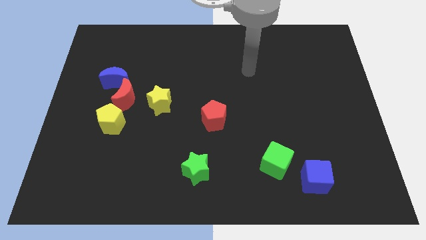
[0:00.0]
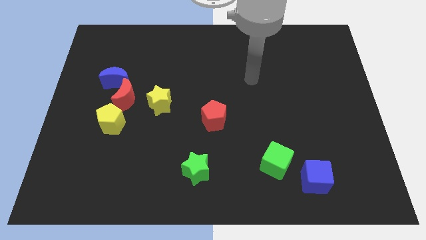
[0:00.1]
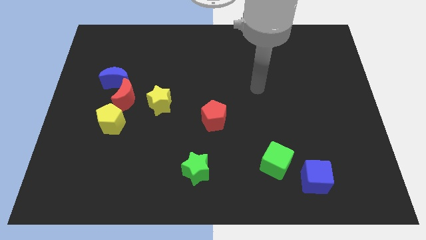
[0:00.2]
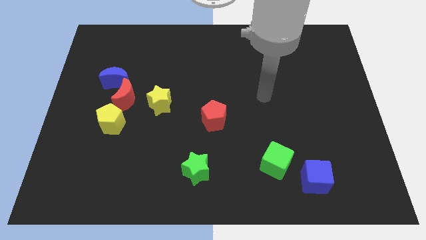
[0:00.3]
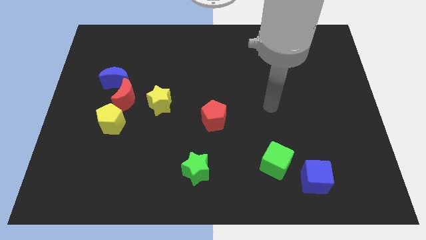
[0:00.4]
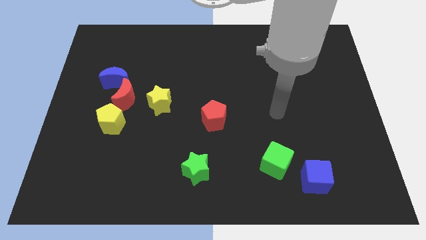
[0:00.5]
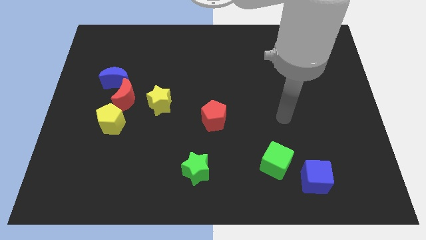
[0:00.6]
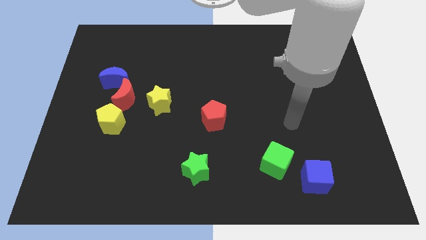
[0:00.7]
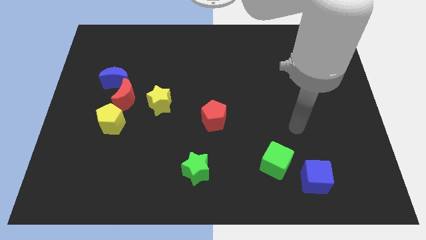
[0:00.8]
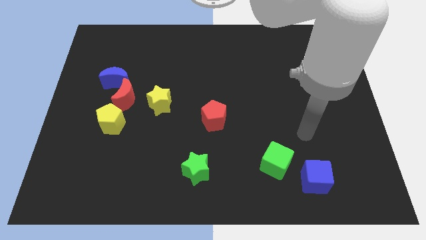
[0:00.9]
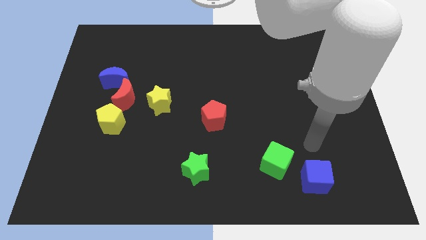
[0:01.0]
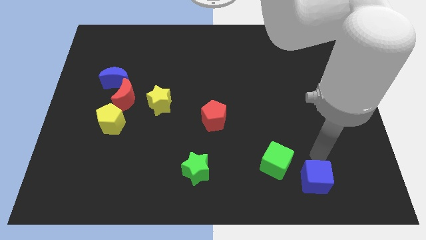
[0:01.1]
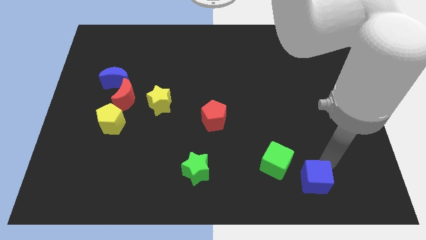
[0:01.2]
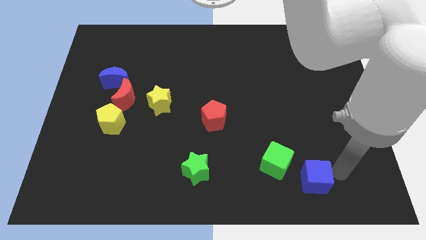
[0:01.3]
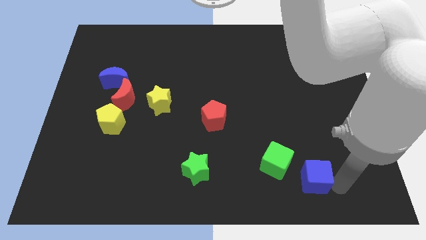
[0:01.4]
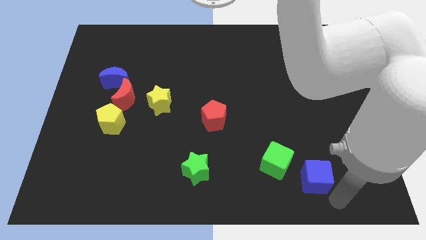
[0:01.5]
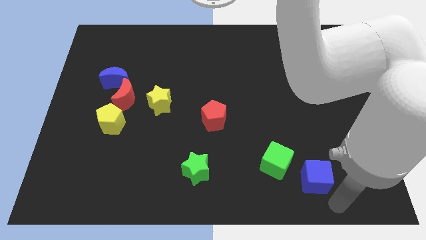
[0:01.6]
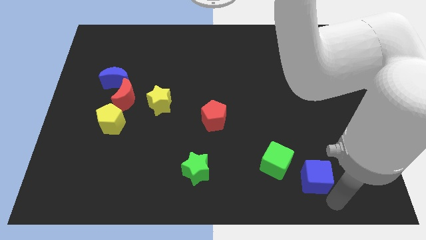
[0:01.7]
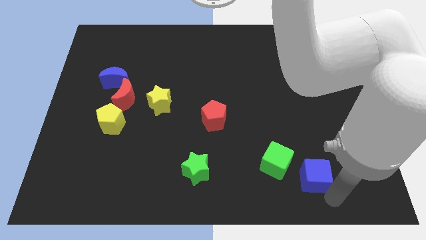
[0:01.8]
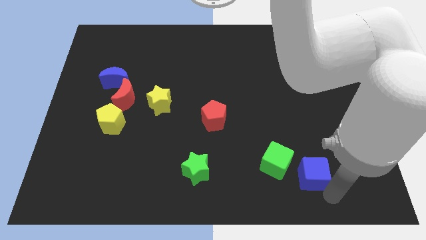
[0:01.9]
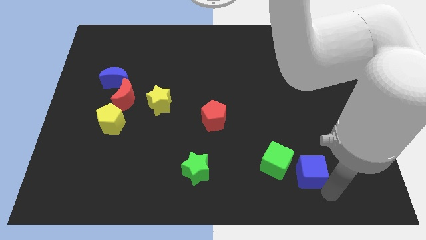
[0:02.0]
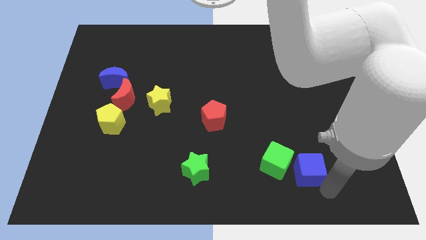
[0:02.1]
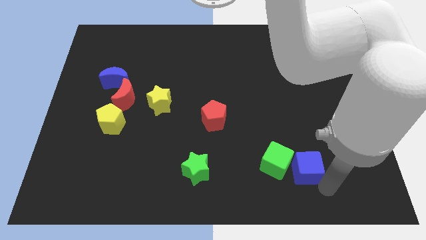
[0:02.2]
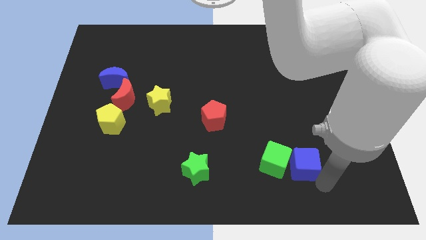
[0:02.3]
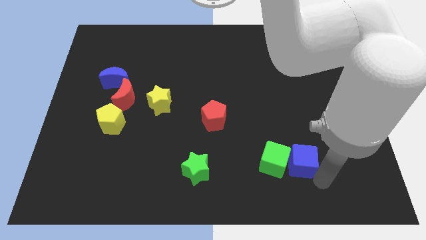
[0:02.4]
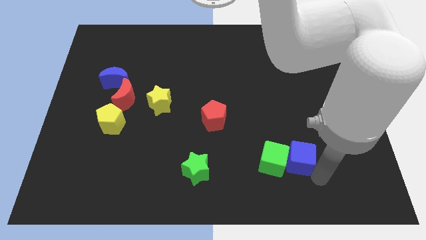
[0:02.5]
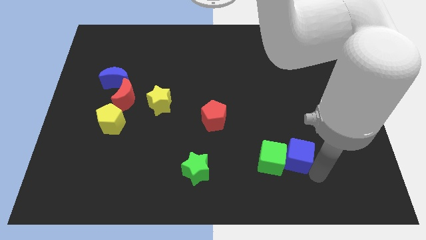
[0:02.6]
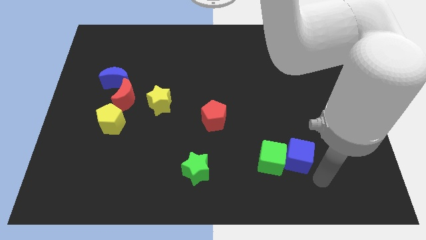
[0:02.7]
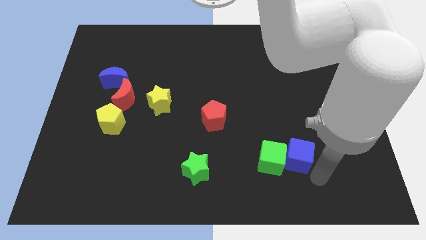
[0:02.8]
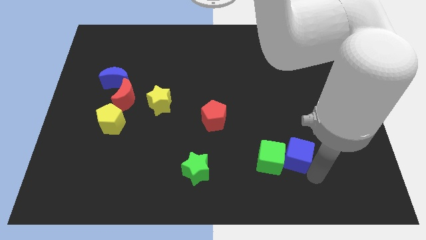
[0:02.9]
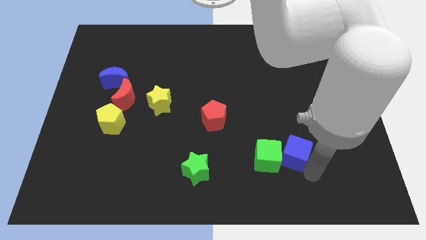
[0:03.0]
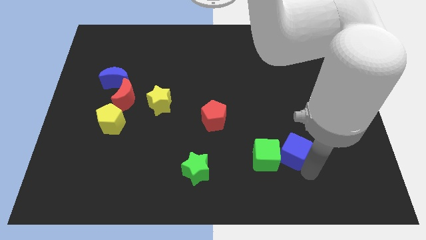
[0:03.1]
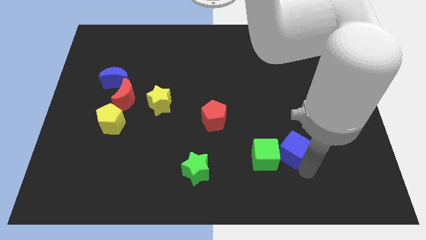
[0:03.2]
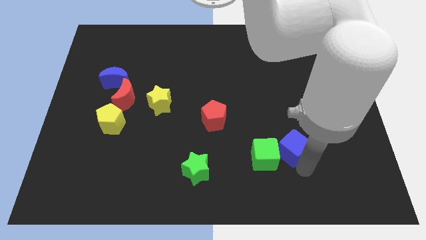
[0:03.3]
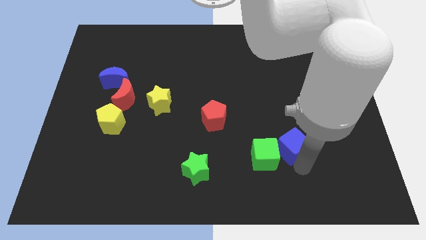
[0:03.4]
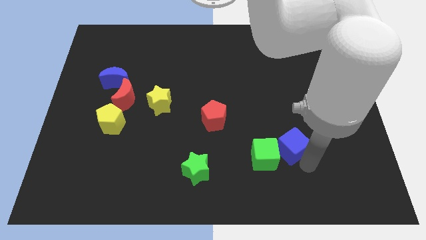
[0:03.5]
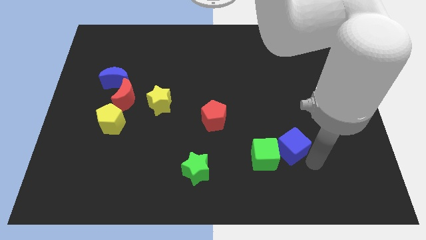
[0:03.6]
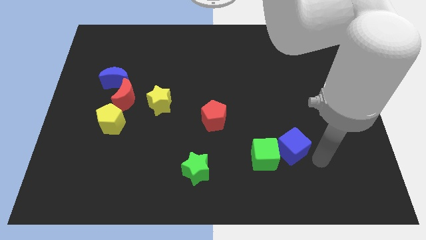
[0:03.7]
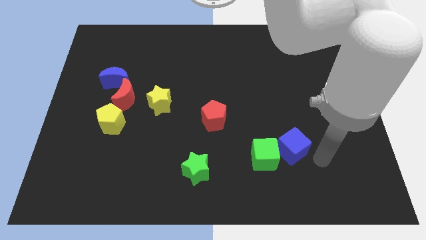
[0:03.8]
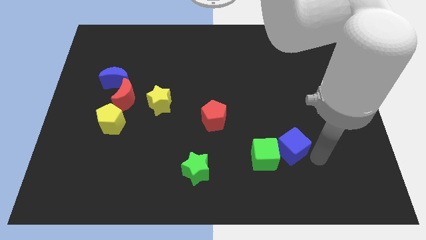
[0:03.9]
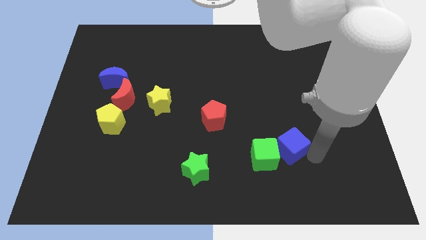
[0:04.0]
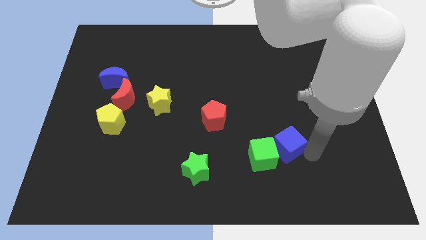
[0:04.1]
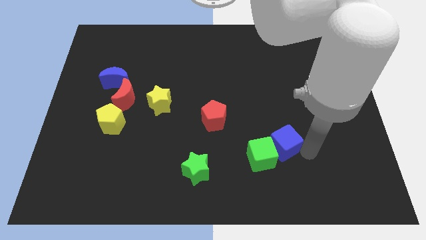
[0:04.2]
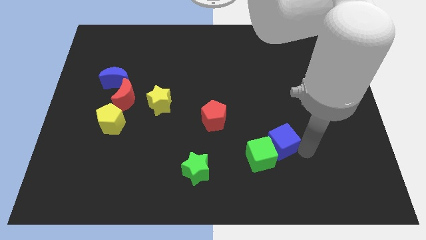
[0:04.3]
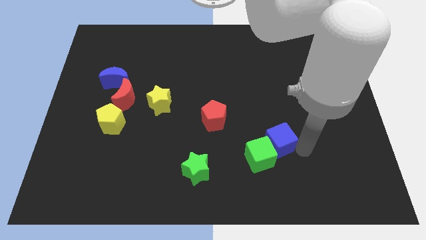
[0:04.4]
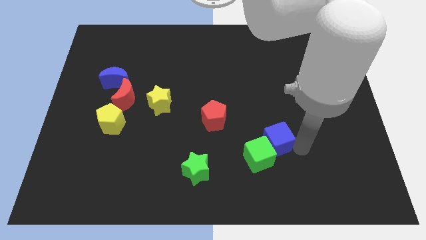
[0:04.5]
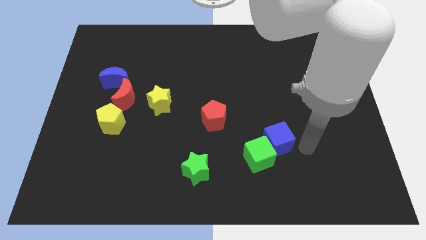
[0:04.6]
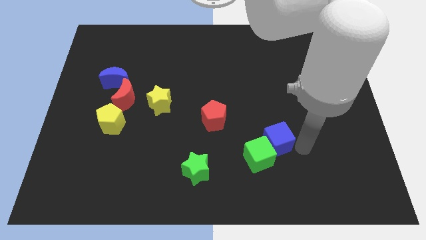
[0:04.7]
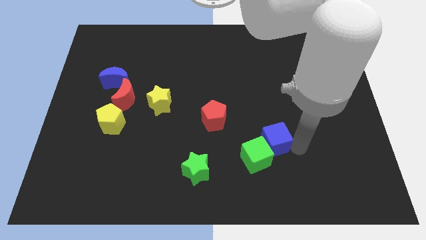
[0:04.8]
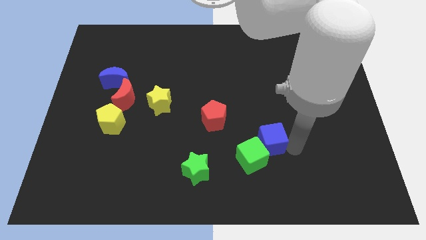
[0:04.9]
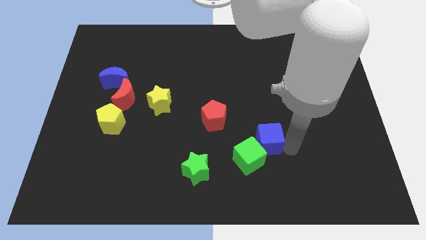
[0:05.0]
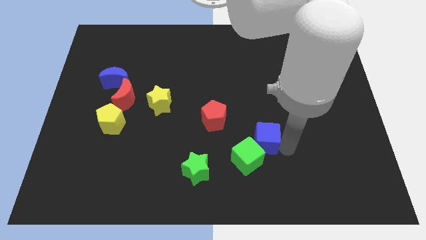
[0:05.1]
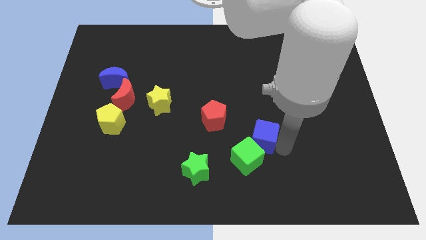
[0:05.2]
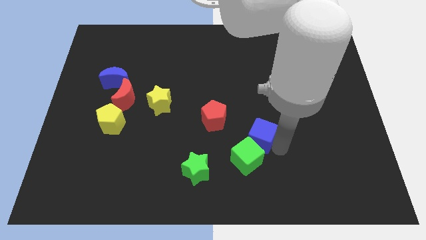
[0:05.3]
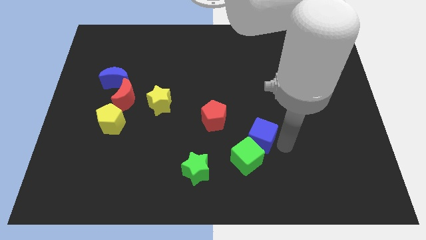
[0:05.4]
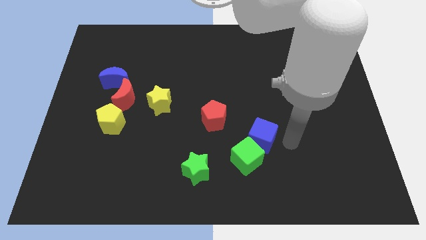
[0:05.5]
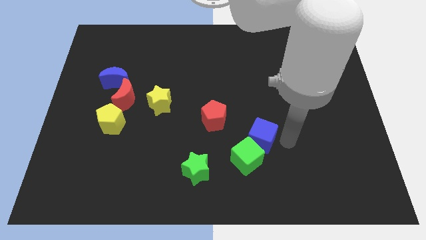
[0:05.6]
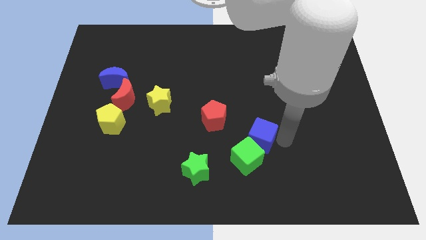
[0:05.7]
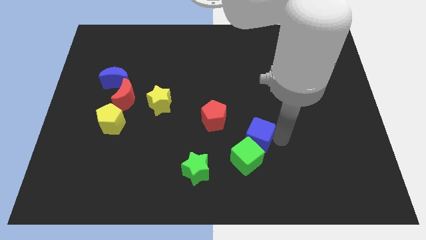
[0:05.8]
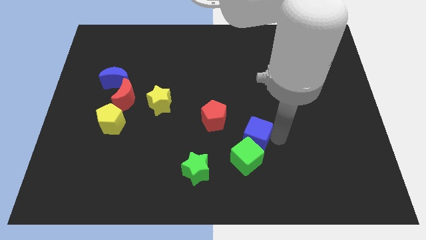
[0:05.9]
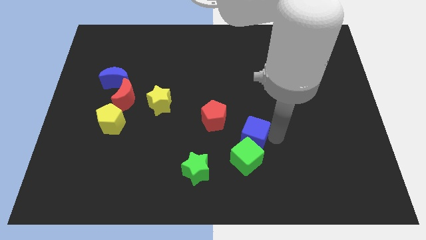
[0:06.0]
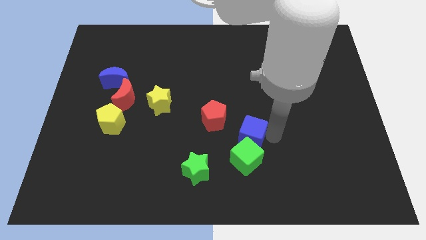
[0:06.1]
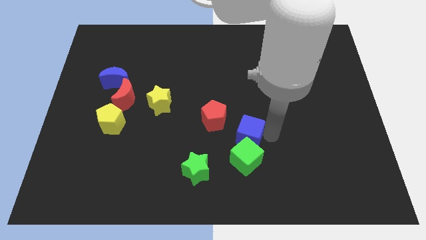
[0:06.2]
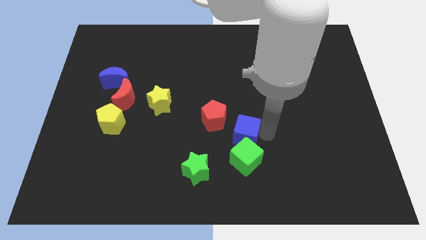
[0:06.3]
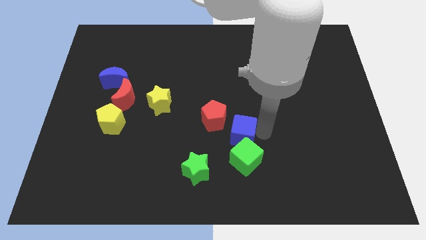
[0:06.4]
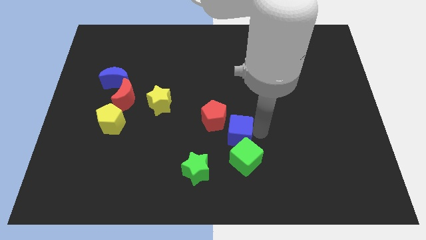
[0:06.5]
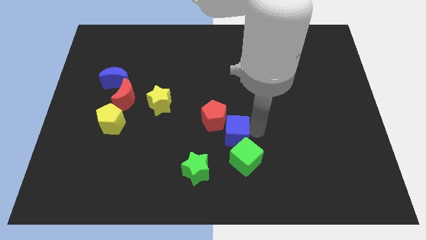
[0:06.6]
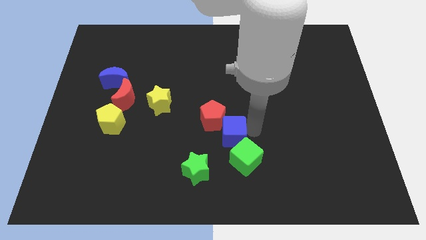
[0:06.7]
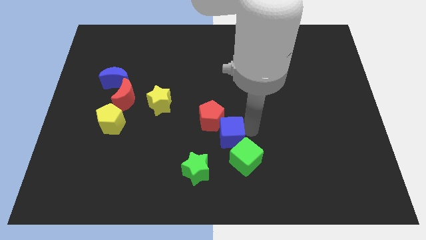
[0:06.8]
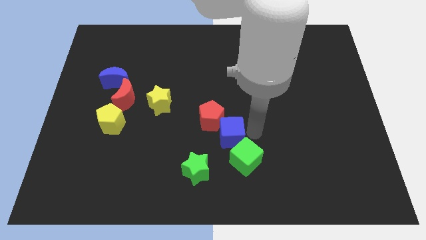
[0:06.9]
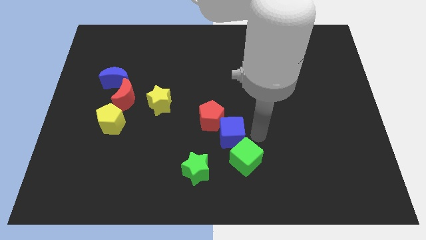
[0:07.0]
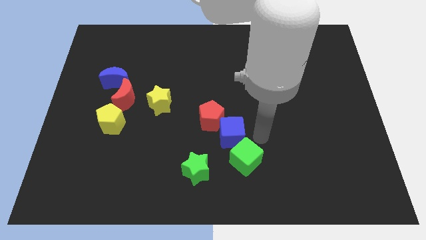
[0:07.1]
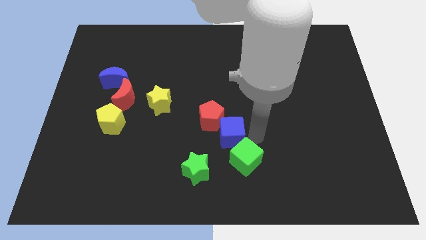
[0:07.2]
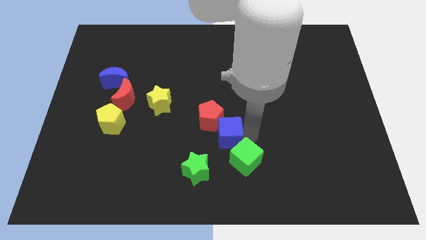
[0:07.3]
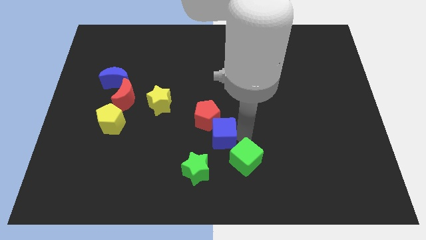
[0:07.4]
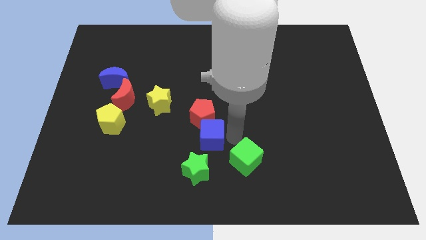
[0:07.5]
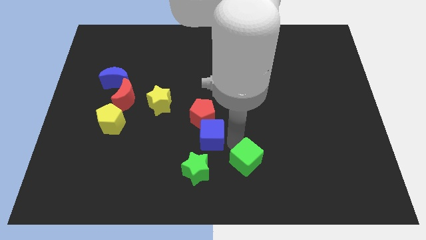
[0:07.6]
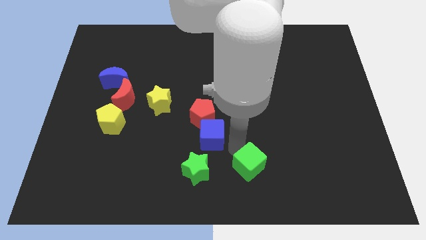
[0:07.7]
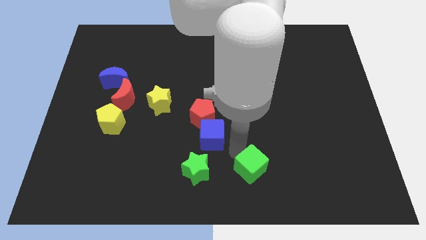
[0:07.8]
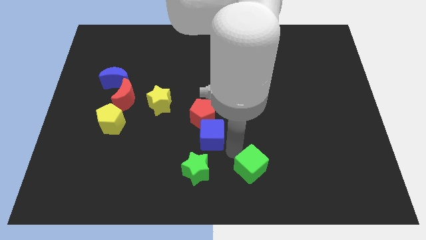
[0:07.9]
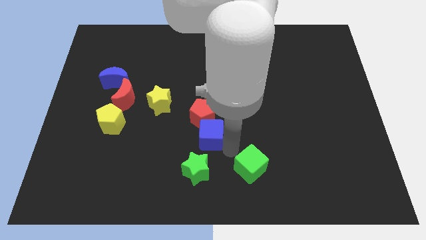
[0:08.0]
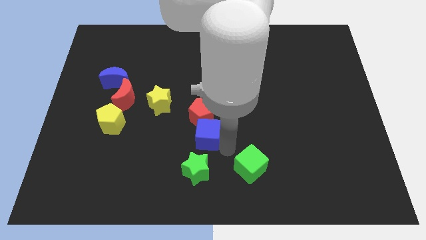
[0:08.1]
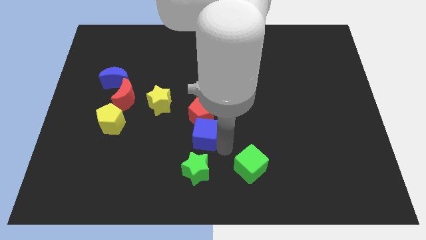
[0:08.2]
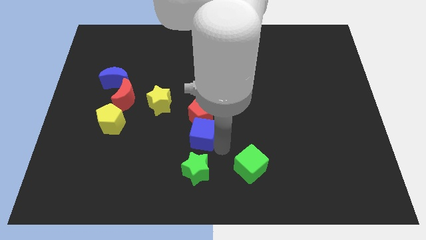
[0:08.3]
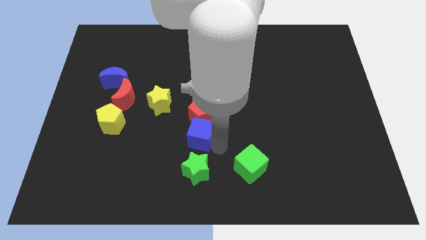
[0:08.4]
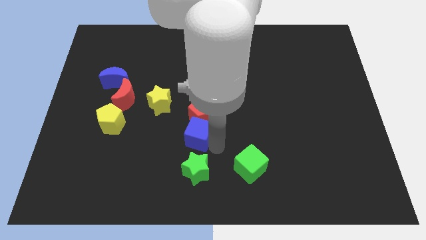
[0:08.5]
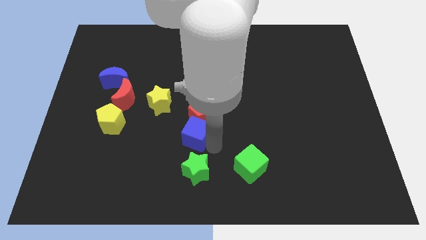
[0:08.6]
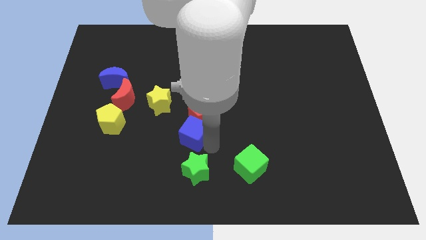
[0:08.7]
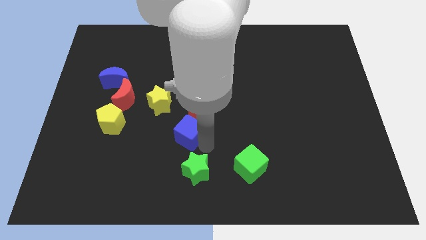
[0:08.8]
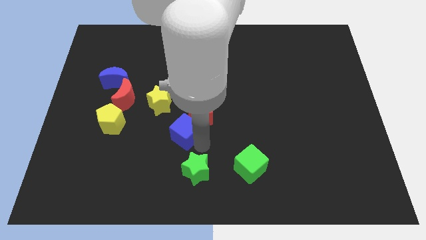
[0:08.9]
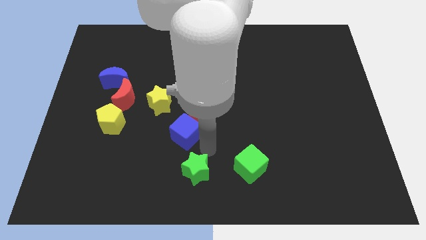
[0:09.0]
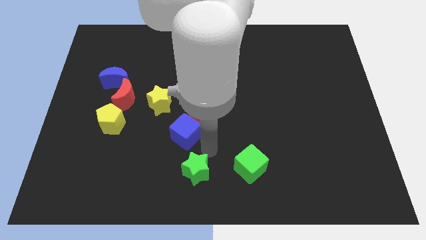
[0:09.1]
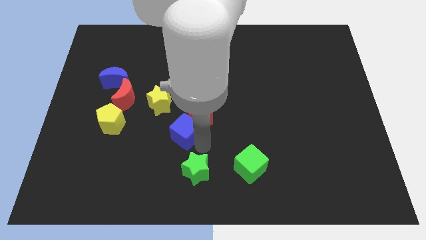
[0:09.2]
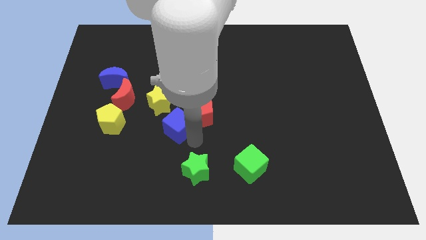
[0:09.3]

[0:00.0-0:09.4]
move the blue cube to the left side of the red pentagon
